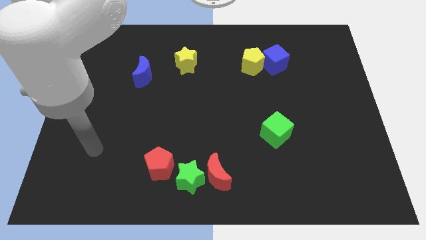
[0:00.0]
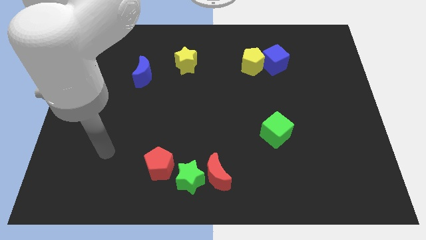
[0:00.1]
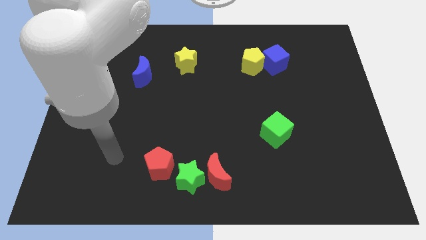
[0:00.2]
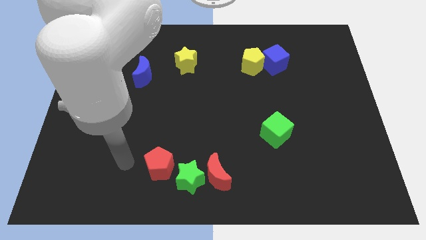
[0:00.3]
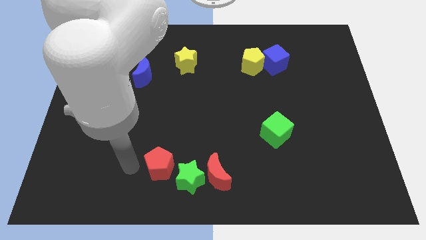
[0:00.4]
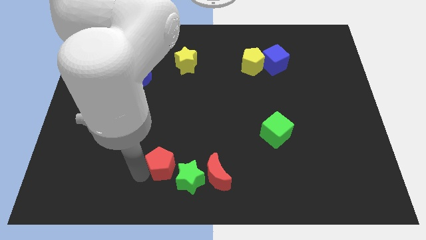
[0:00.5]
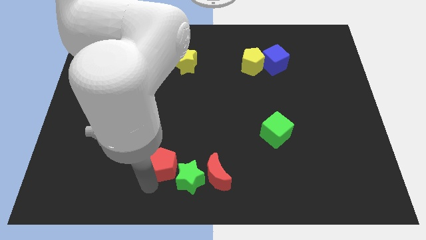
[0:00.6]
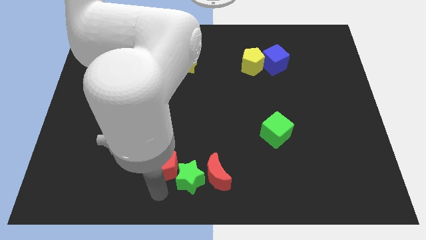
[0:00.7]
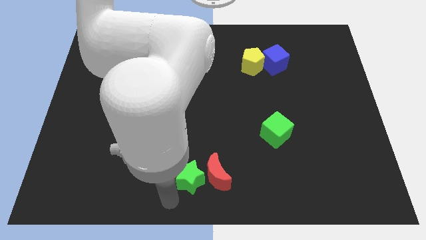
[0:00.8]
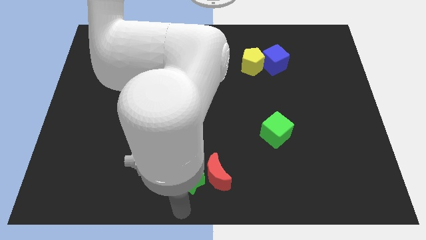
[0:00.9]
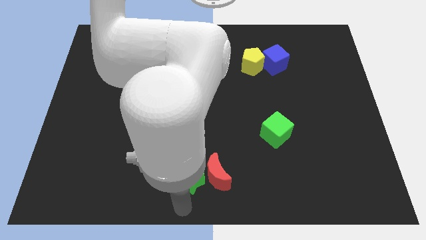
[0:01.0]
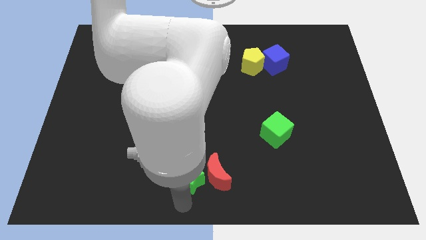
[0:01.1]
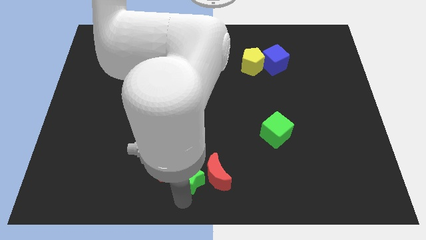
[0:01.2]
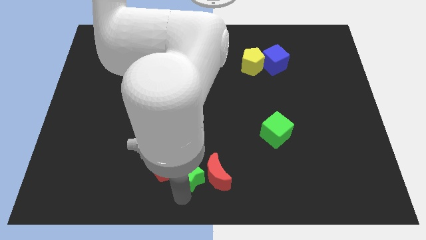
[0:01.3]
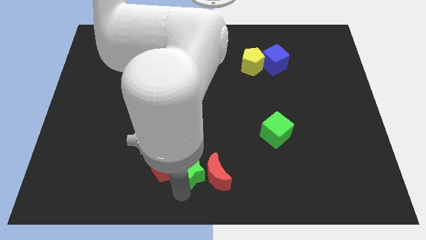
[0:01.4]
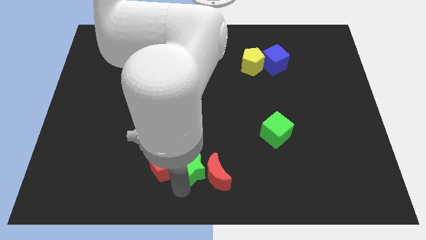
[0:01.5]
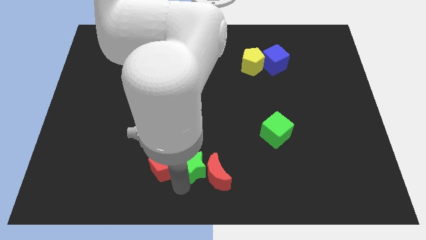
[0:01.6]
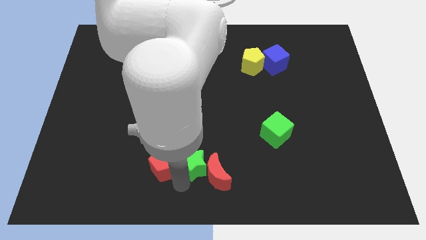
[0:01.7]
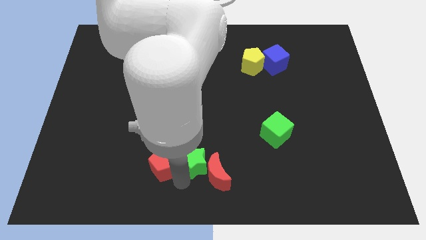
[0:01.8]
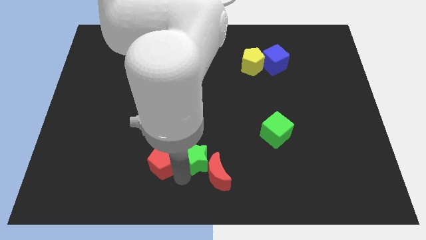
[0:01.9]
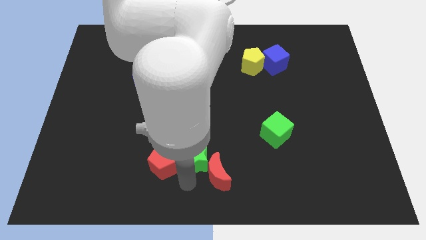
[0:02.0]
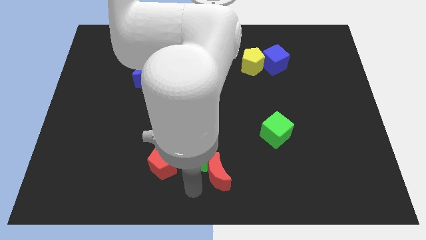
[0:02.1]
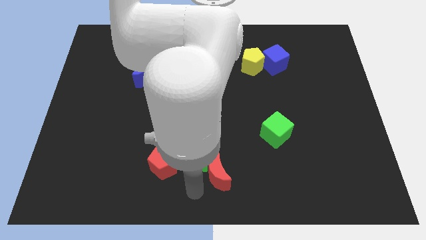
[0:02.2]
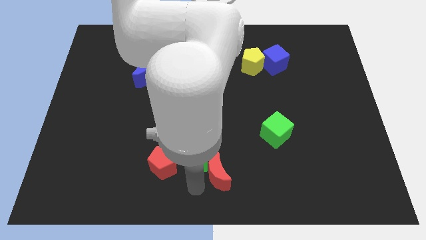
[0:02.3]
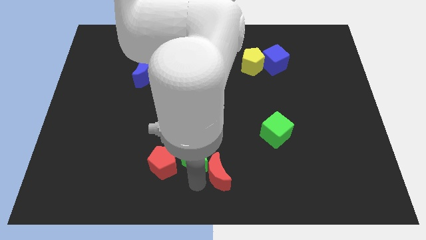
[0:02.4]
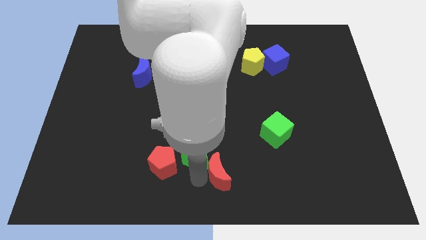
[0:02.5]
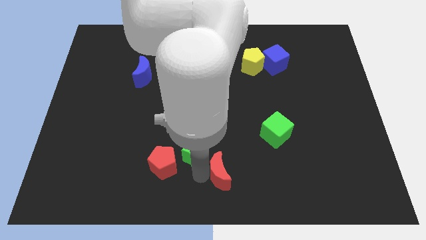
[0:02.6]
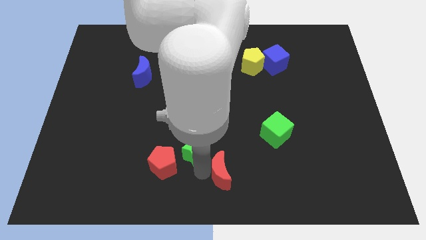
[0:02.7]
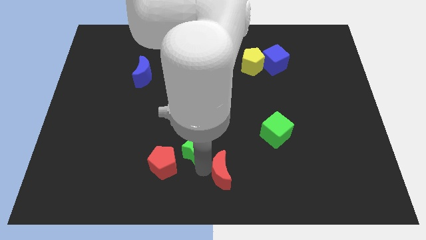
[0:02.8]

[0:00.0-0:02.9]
move the green star a little up

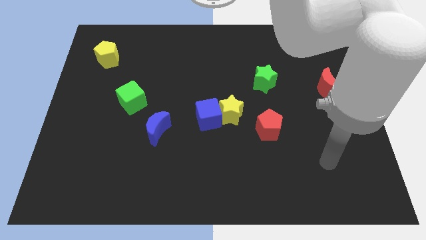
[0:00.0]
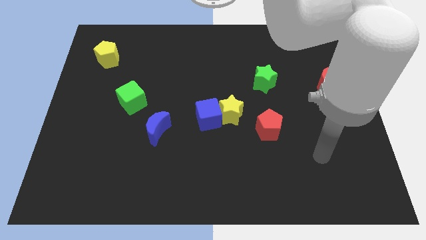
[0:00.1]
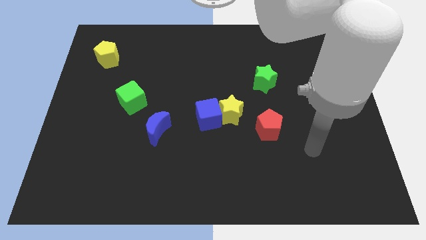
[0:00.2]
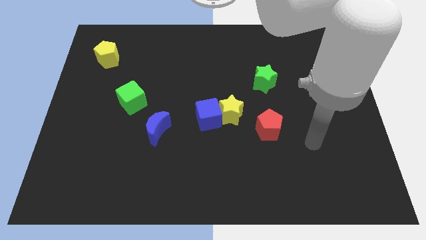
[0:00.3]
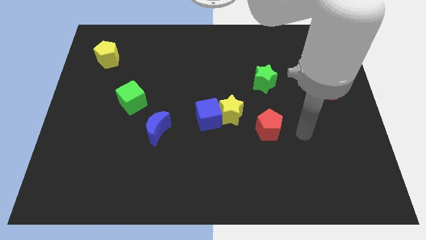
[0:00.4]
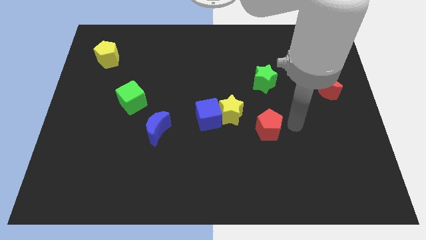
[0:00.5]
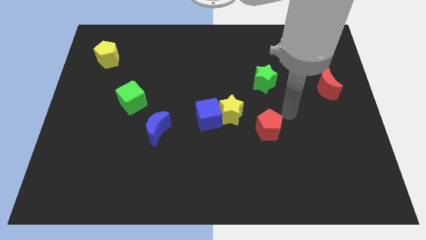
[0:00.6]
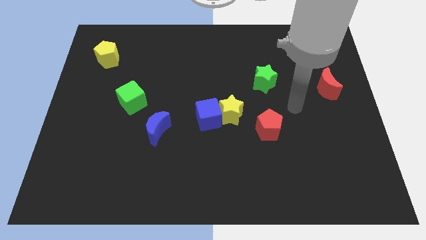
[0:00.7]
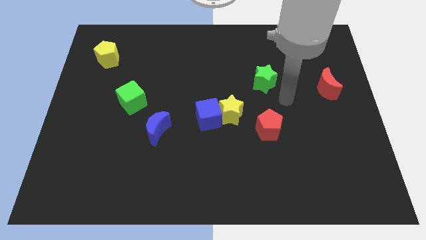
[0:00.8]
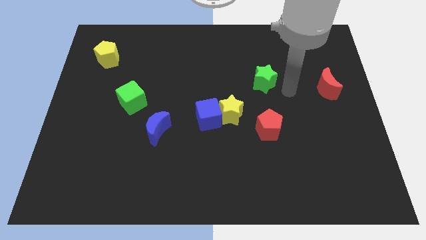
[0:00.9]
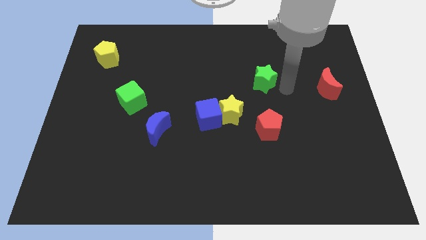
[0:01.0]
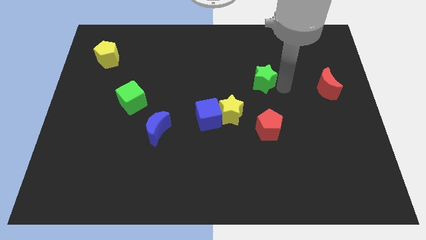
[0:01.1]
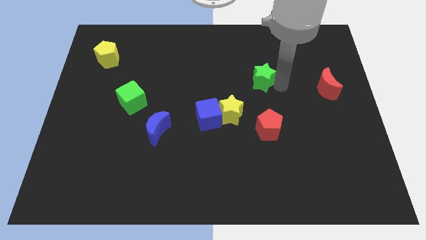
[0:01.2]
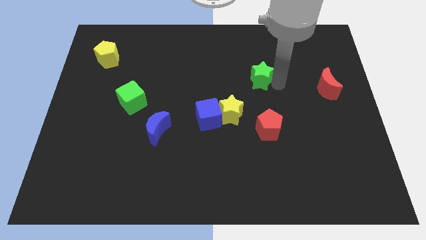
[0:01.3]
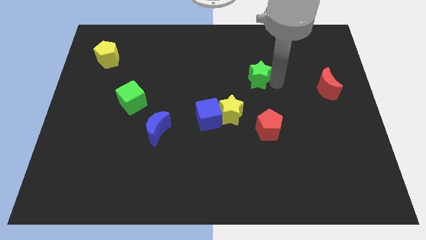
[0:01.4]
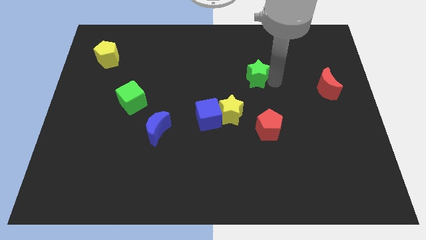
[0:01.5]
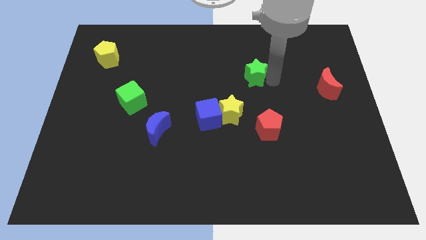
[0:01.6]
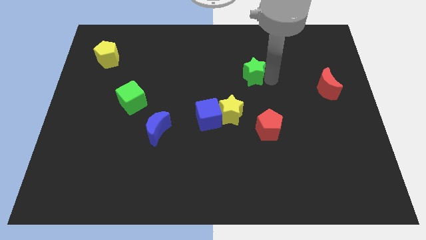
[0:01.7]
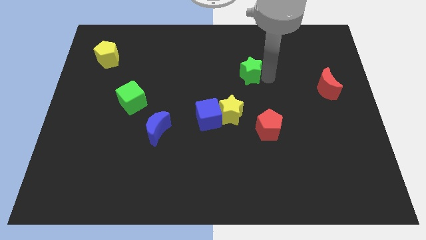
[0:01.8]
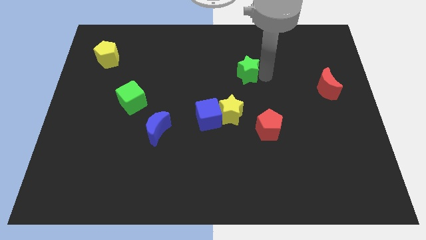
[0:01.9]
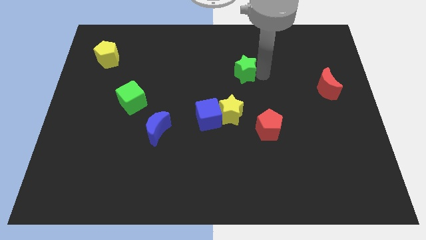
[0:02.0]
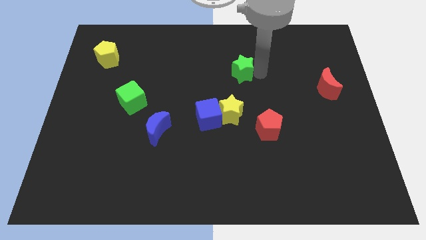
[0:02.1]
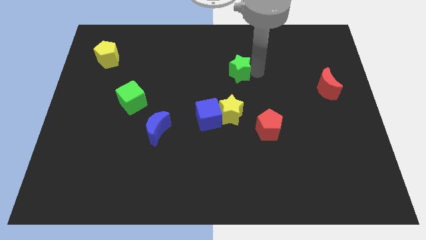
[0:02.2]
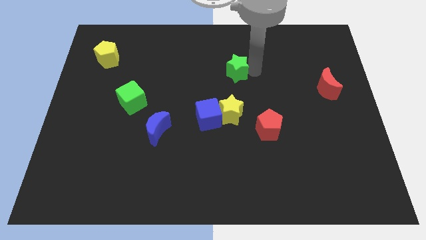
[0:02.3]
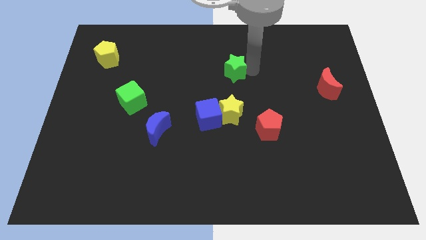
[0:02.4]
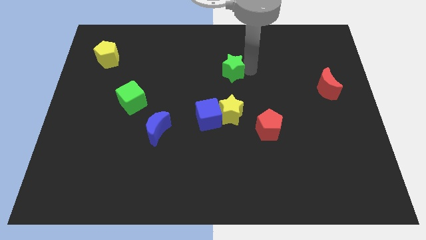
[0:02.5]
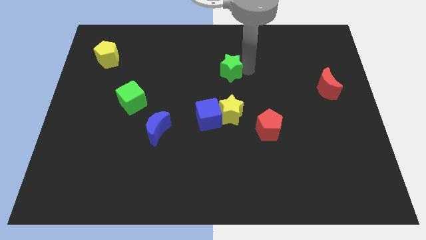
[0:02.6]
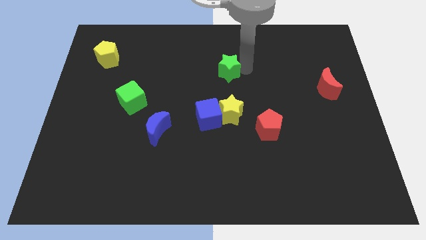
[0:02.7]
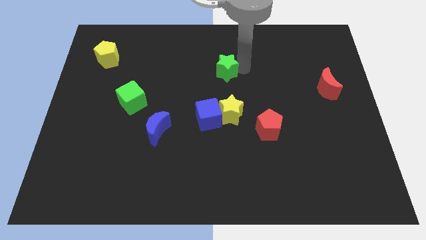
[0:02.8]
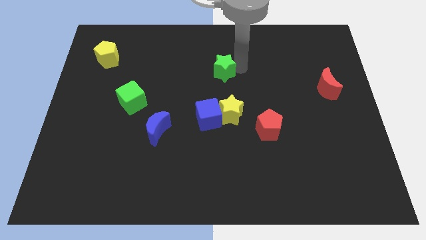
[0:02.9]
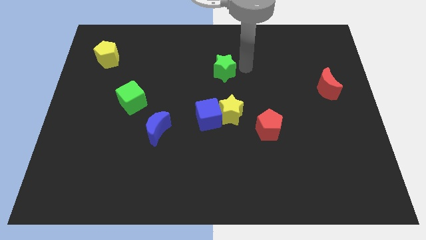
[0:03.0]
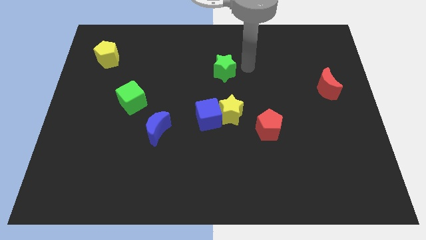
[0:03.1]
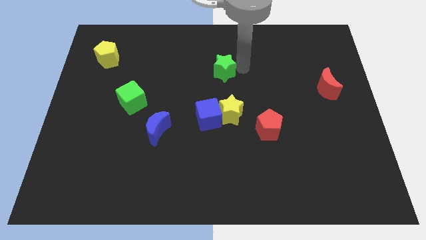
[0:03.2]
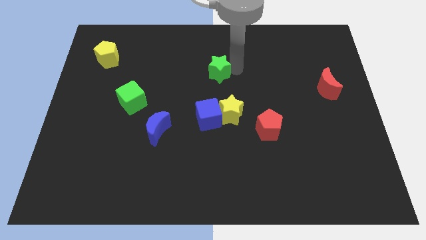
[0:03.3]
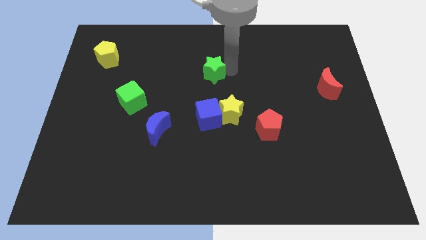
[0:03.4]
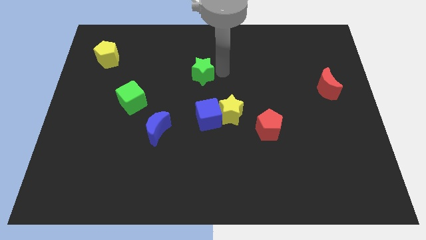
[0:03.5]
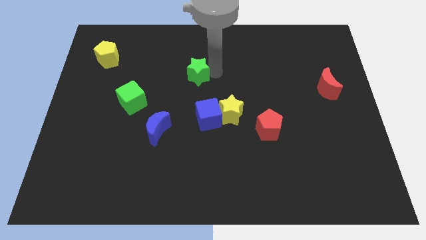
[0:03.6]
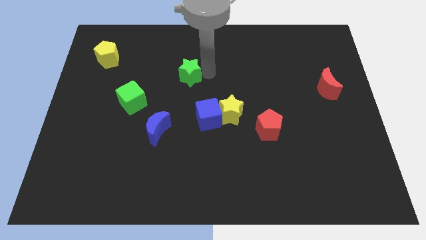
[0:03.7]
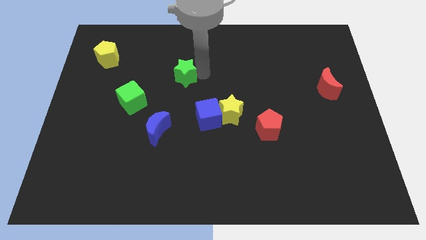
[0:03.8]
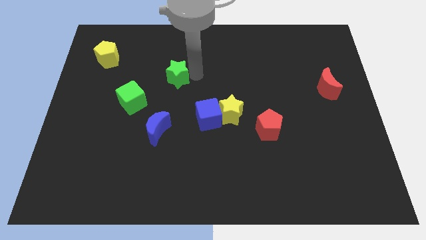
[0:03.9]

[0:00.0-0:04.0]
push the green star to the left

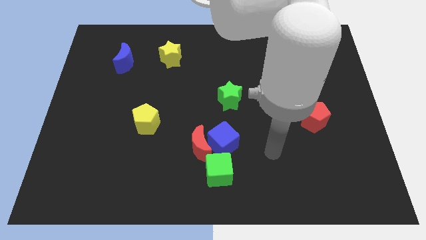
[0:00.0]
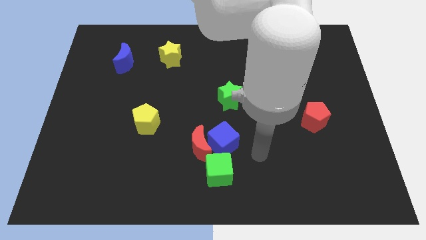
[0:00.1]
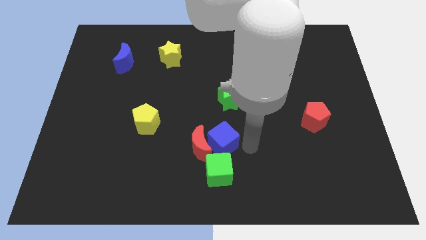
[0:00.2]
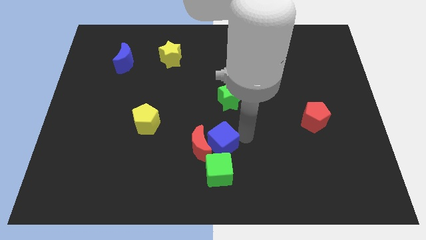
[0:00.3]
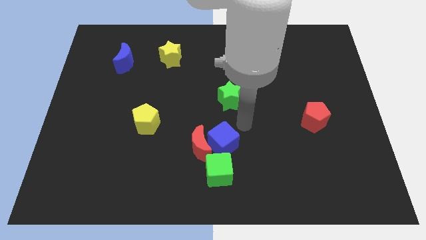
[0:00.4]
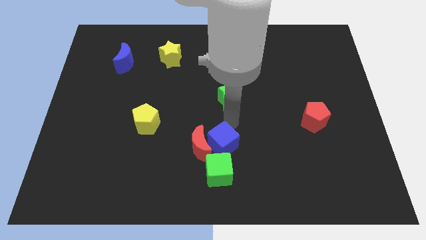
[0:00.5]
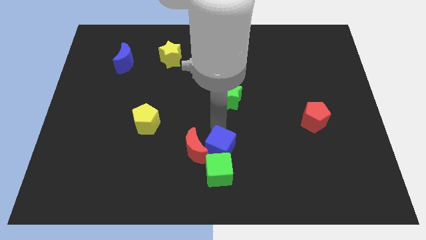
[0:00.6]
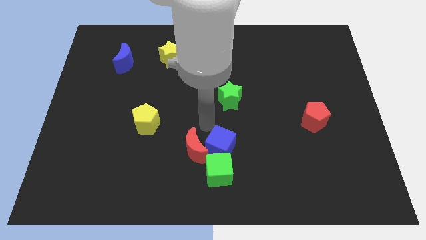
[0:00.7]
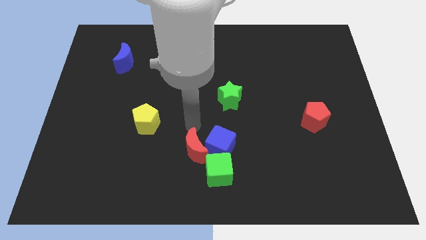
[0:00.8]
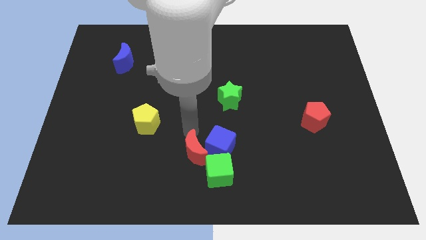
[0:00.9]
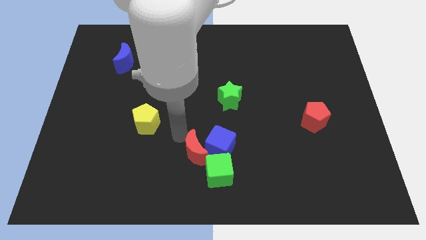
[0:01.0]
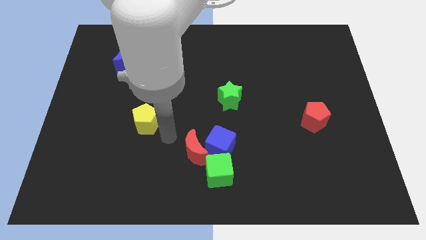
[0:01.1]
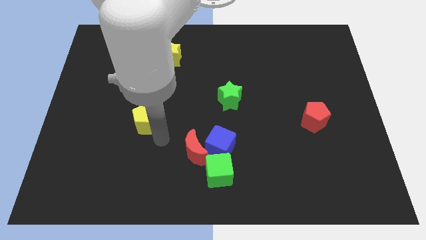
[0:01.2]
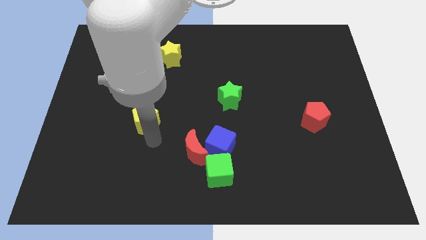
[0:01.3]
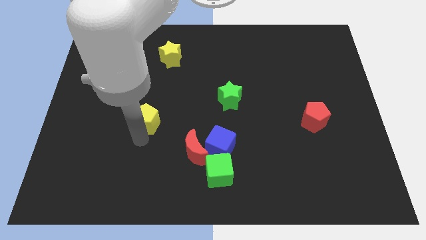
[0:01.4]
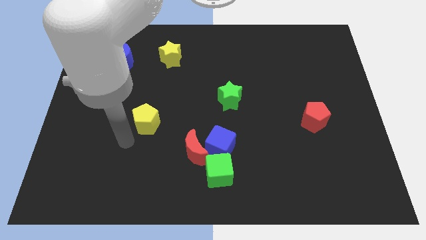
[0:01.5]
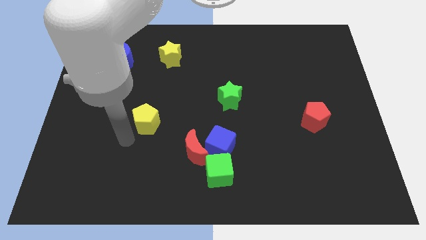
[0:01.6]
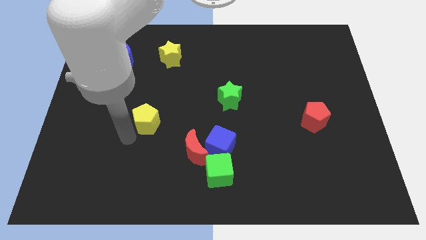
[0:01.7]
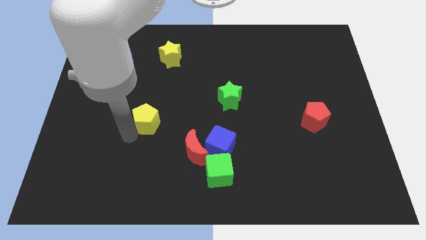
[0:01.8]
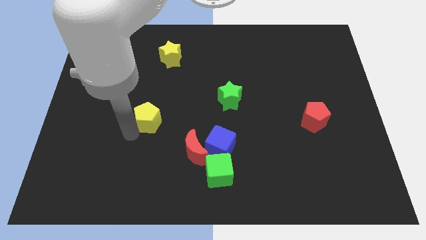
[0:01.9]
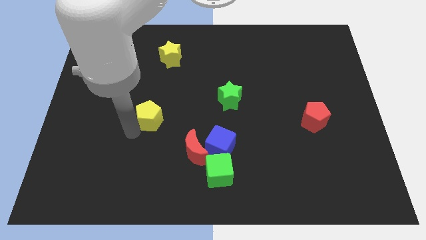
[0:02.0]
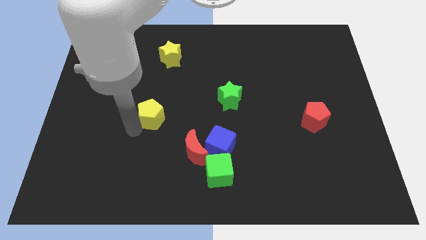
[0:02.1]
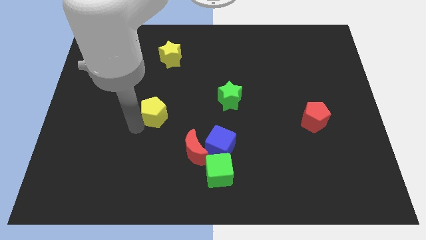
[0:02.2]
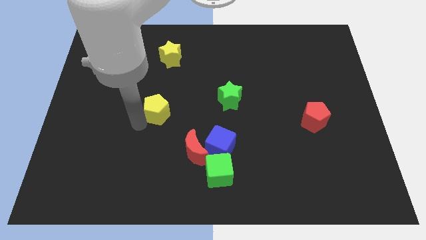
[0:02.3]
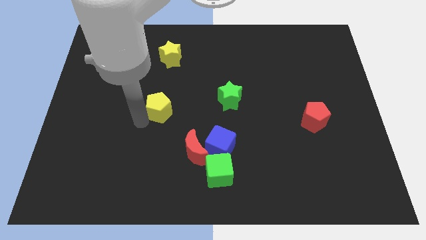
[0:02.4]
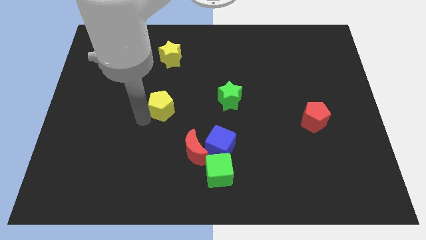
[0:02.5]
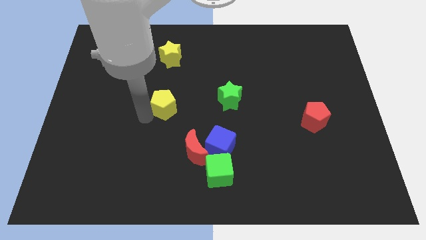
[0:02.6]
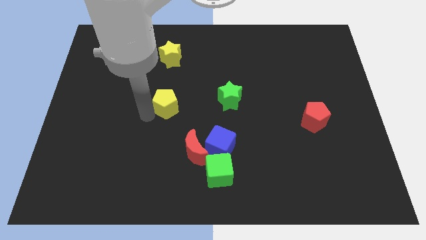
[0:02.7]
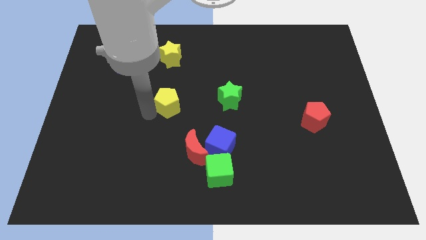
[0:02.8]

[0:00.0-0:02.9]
move the yellow pentagon a little up and then right
